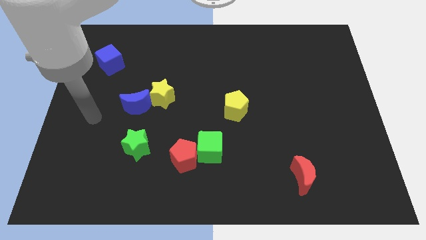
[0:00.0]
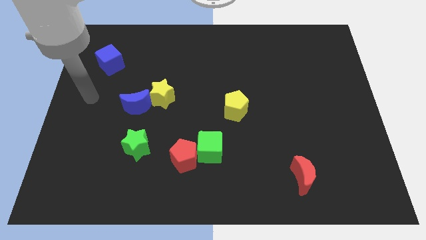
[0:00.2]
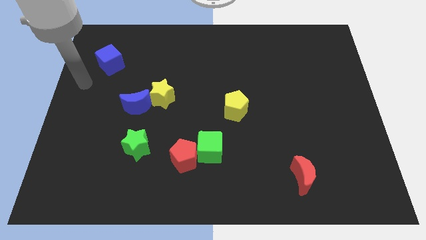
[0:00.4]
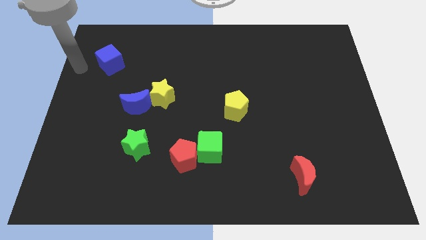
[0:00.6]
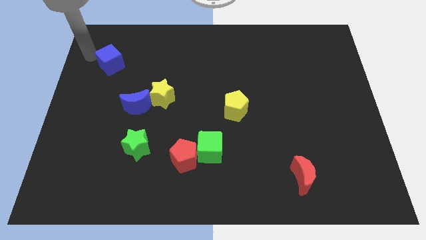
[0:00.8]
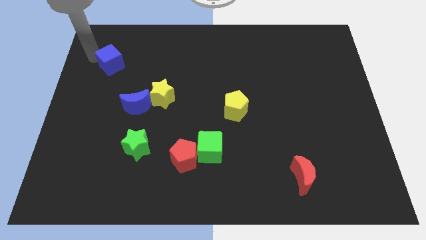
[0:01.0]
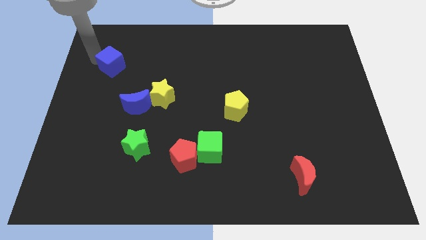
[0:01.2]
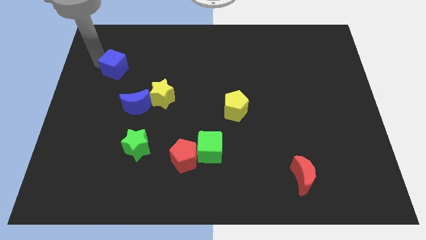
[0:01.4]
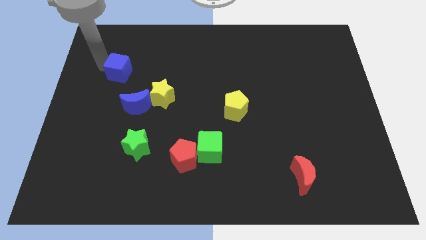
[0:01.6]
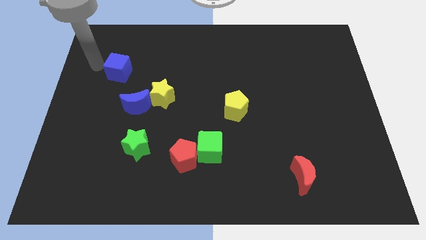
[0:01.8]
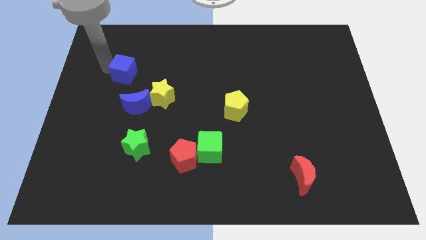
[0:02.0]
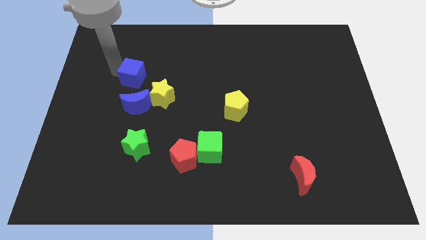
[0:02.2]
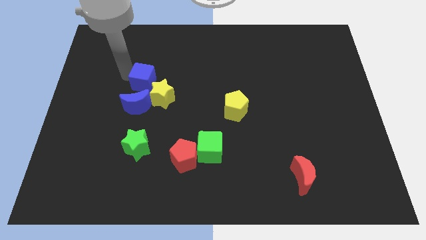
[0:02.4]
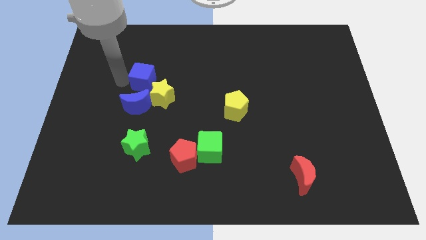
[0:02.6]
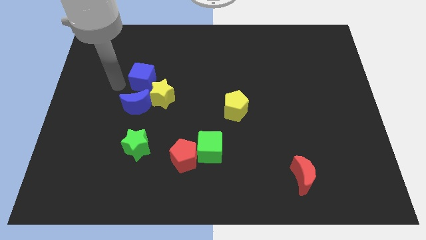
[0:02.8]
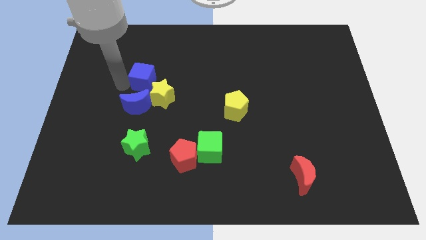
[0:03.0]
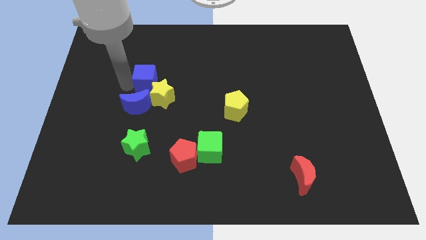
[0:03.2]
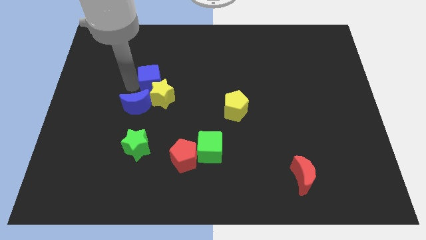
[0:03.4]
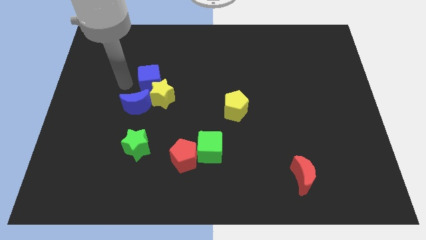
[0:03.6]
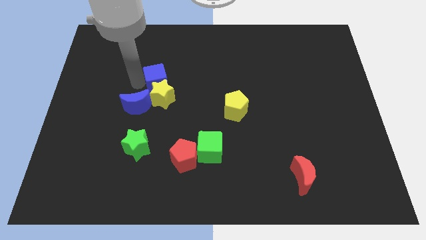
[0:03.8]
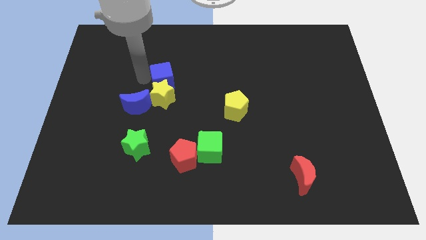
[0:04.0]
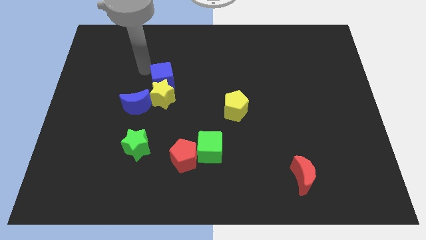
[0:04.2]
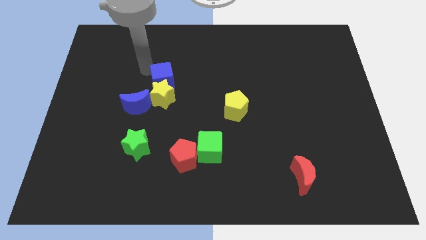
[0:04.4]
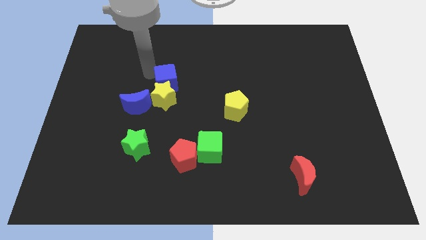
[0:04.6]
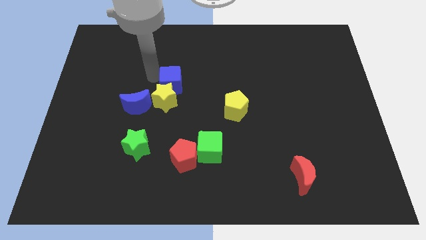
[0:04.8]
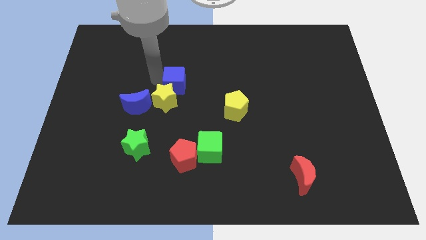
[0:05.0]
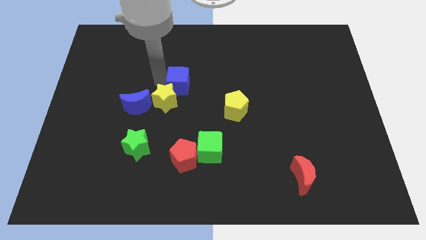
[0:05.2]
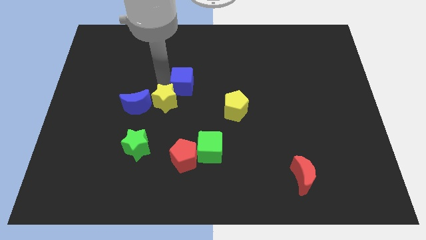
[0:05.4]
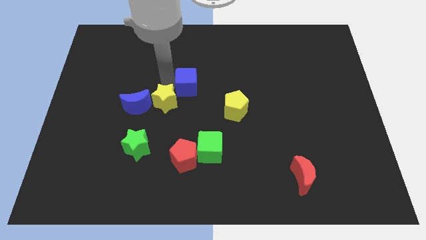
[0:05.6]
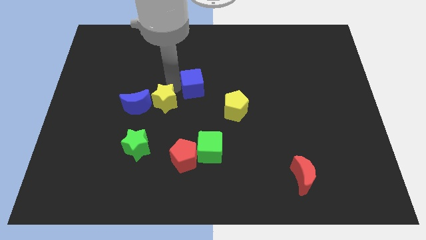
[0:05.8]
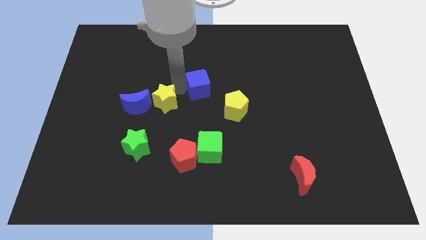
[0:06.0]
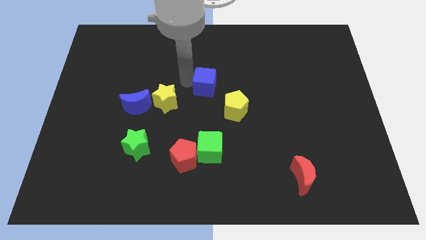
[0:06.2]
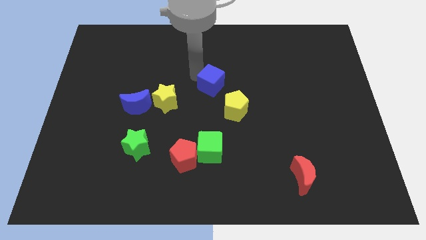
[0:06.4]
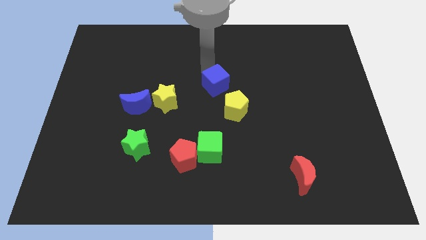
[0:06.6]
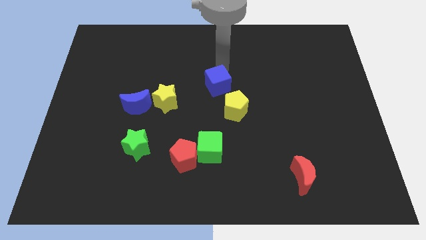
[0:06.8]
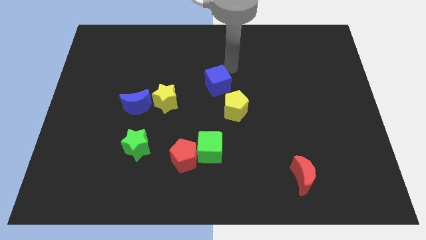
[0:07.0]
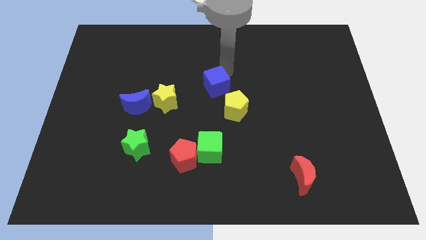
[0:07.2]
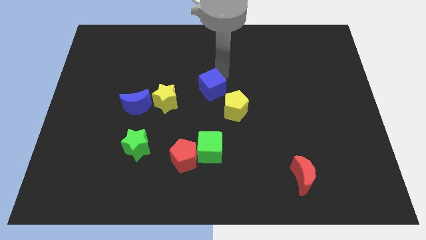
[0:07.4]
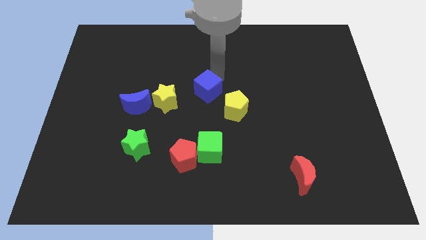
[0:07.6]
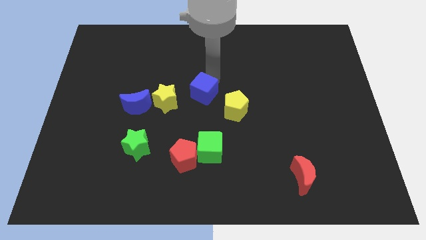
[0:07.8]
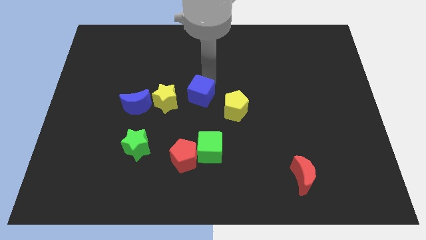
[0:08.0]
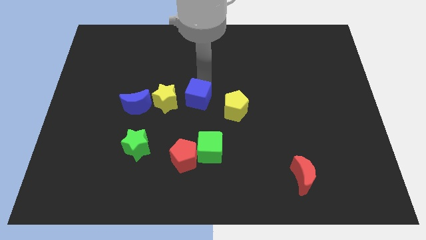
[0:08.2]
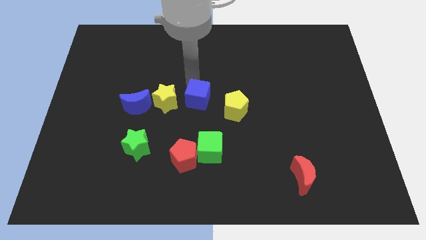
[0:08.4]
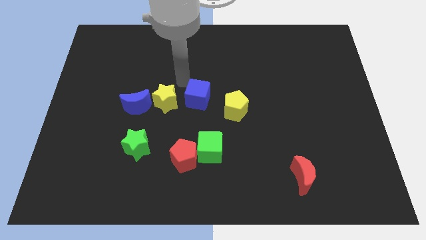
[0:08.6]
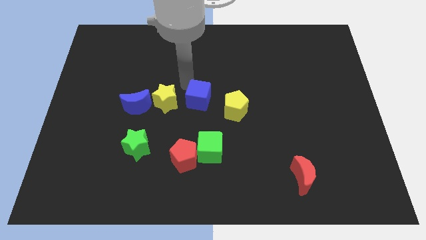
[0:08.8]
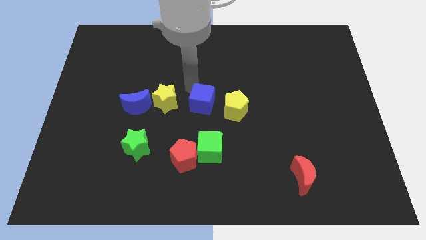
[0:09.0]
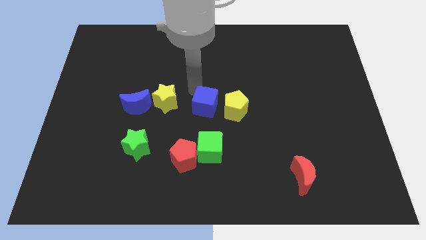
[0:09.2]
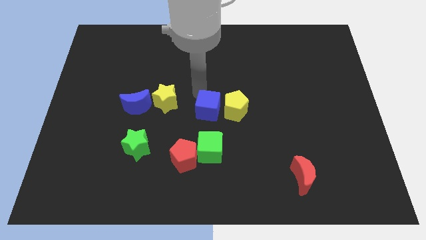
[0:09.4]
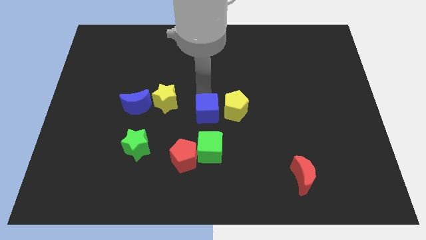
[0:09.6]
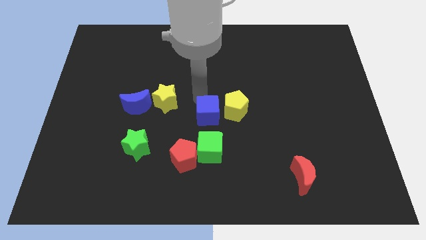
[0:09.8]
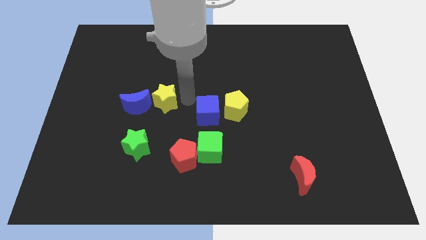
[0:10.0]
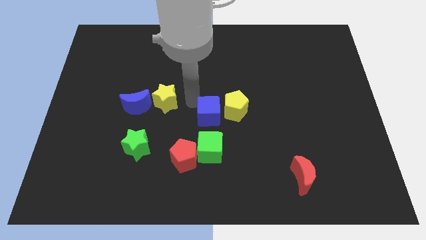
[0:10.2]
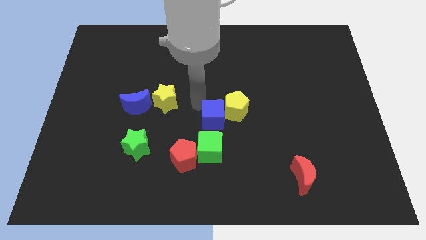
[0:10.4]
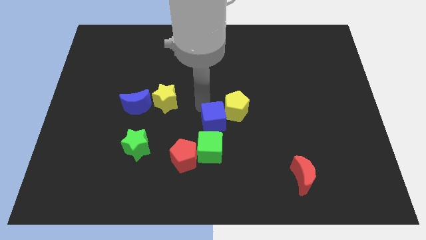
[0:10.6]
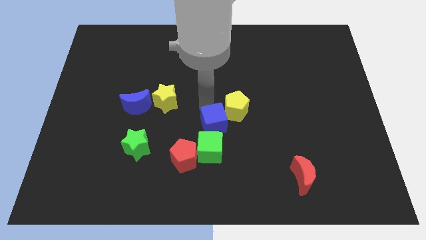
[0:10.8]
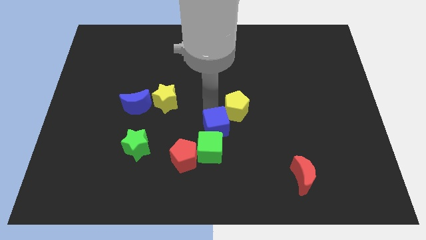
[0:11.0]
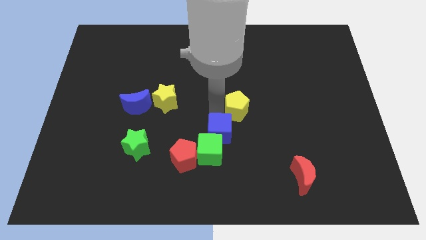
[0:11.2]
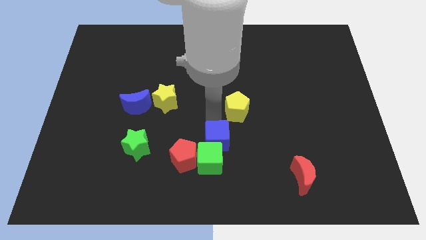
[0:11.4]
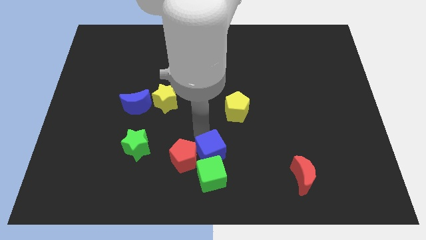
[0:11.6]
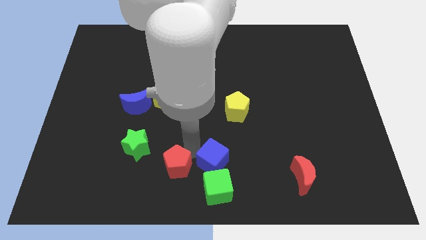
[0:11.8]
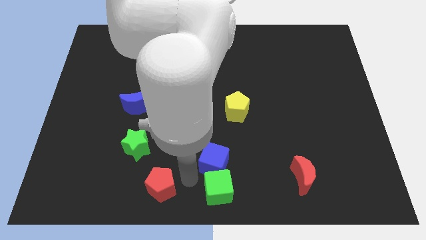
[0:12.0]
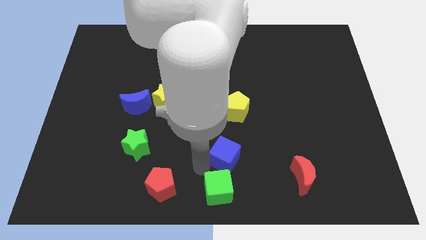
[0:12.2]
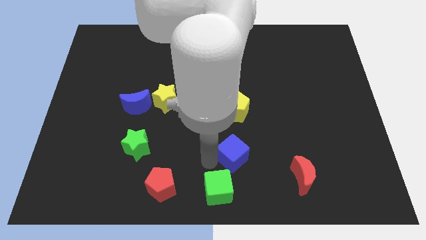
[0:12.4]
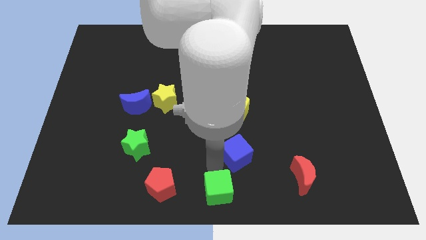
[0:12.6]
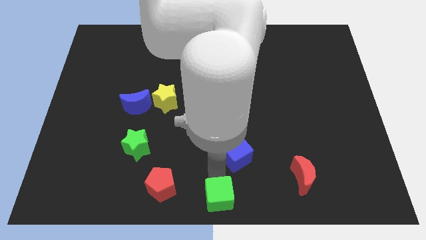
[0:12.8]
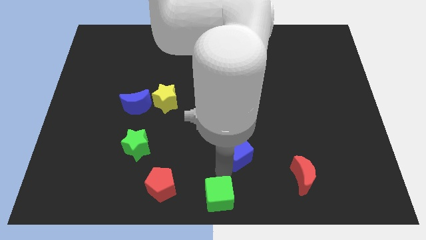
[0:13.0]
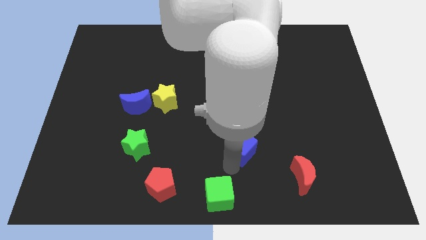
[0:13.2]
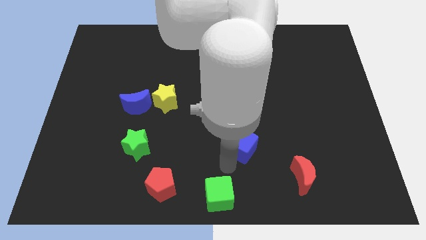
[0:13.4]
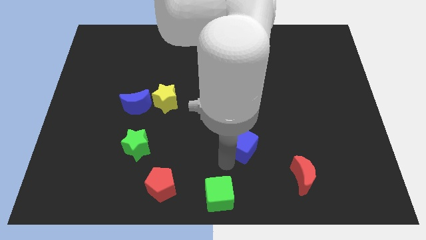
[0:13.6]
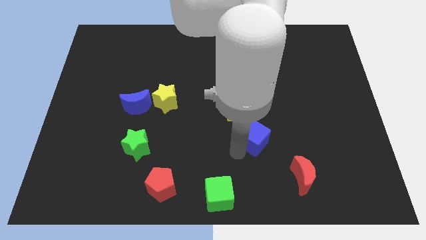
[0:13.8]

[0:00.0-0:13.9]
push the blue cube diagonally down and to the right of the yellow pentagon

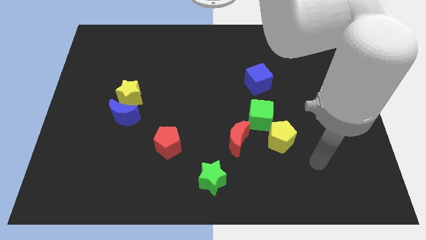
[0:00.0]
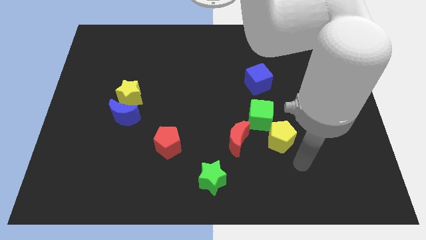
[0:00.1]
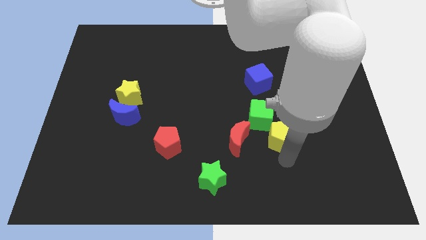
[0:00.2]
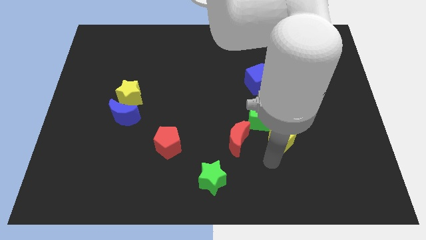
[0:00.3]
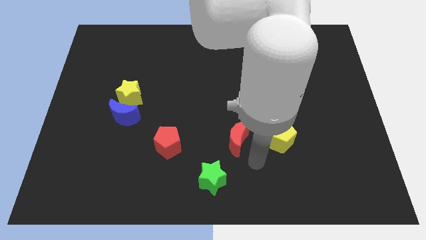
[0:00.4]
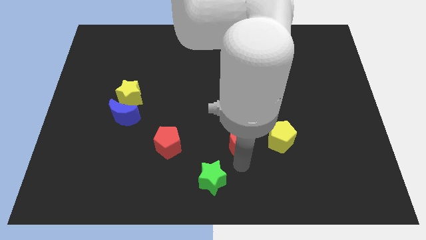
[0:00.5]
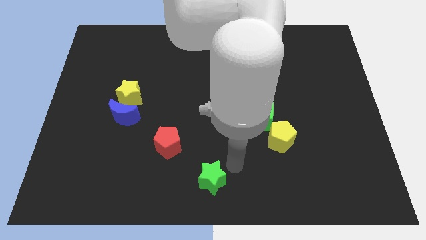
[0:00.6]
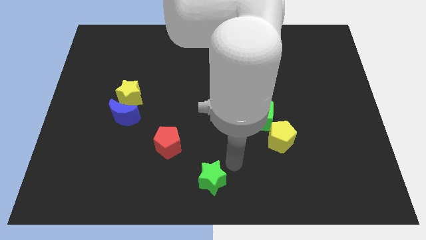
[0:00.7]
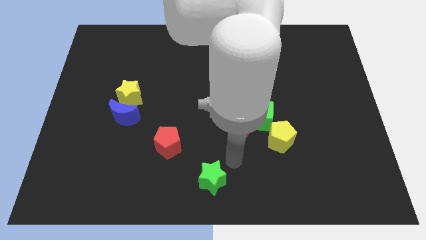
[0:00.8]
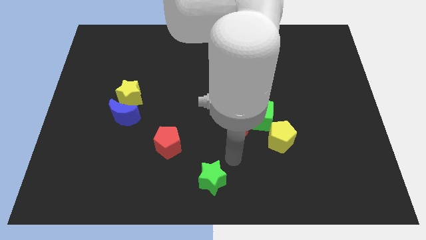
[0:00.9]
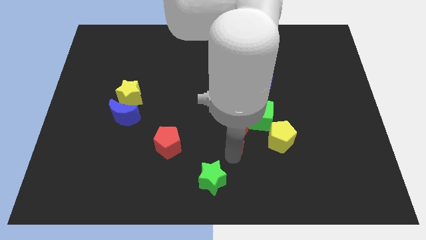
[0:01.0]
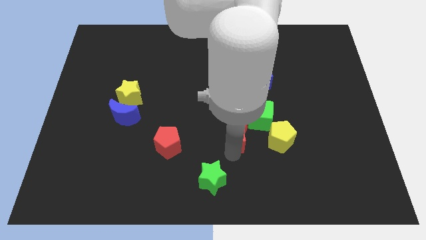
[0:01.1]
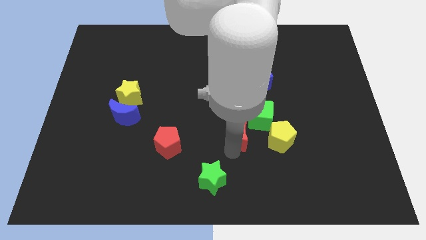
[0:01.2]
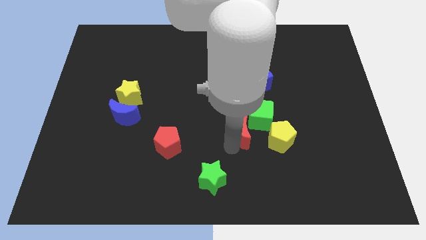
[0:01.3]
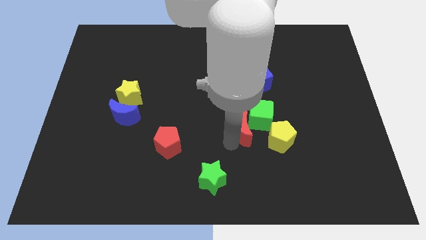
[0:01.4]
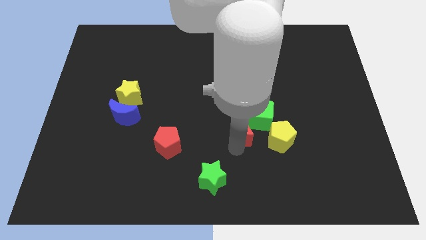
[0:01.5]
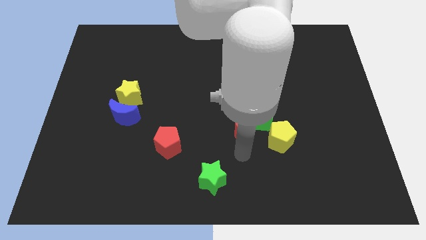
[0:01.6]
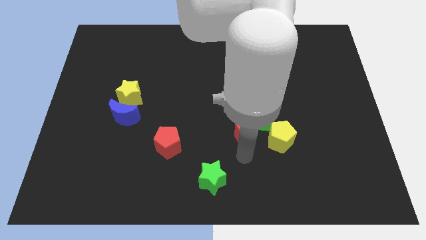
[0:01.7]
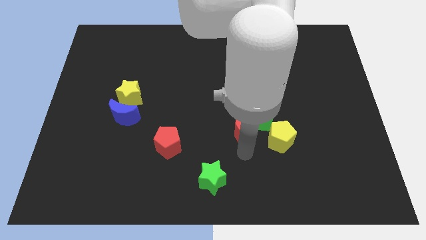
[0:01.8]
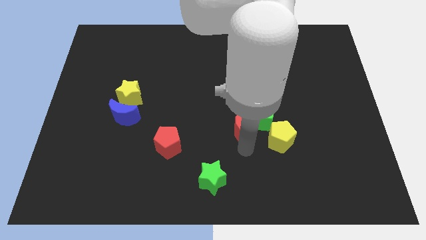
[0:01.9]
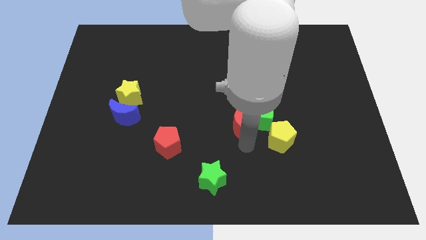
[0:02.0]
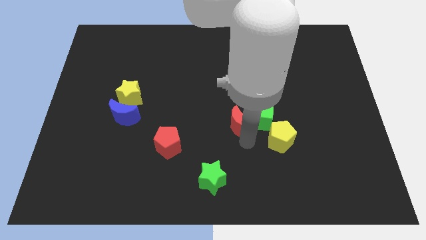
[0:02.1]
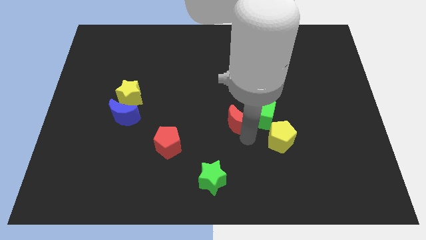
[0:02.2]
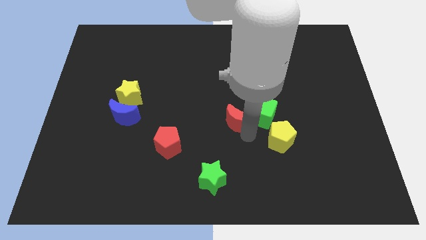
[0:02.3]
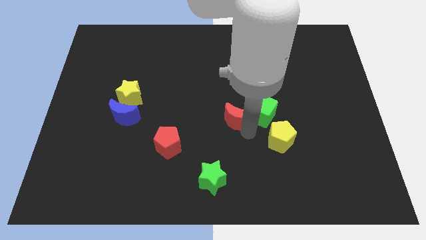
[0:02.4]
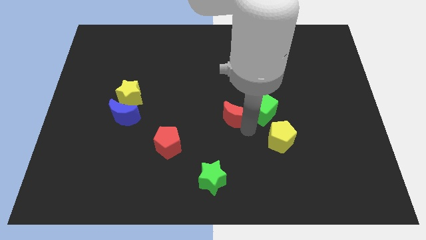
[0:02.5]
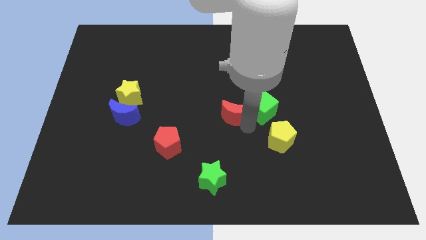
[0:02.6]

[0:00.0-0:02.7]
put the red moon to the bottom left of the blue cube
